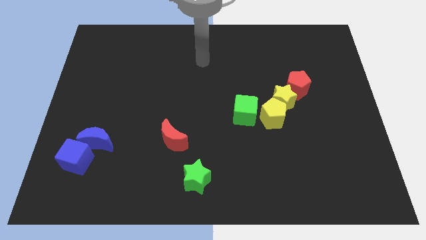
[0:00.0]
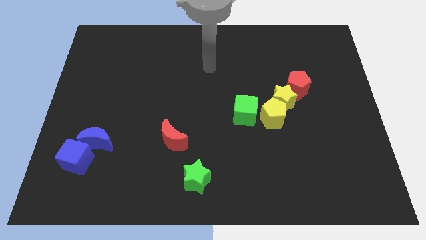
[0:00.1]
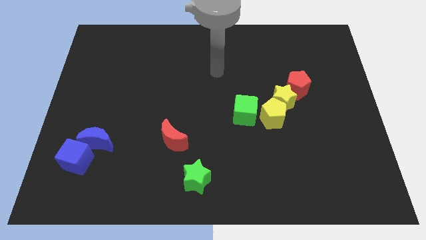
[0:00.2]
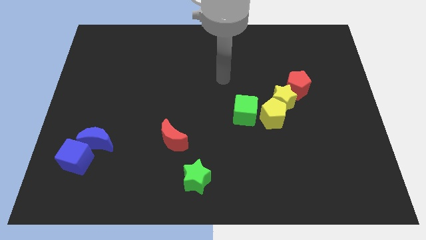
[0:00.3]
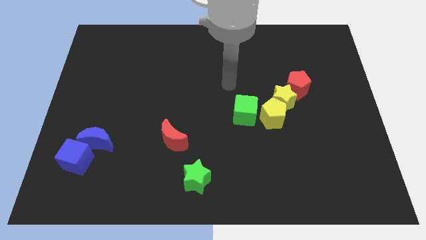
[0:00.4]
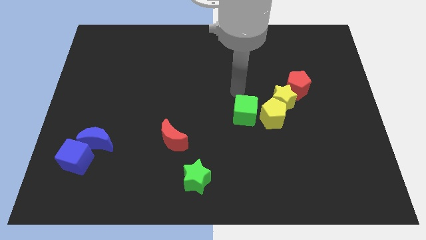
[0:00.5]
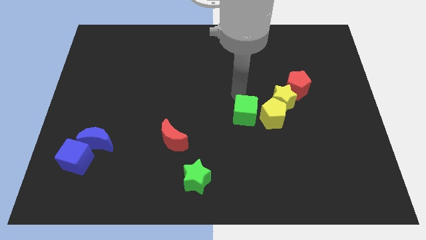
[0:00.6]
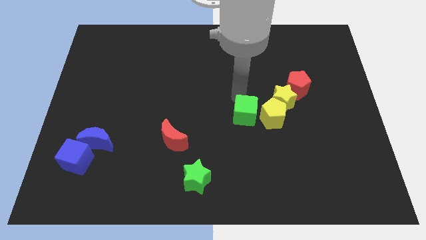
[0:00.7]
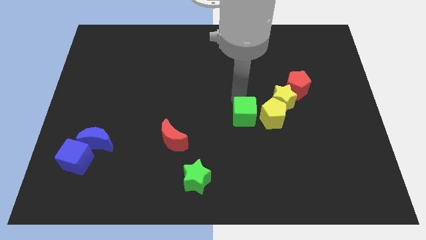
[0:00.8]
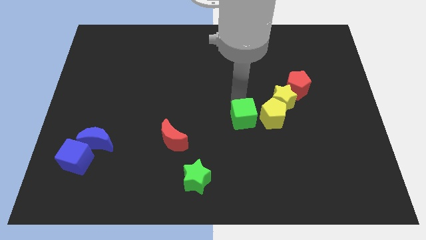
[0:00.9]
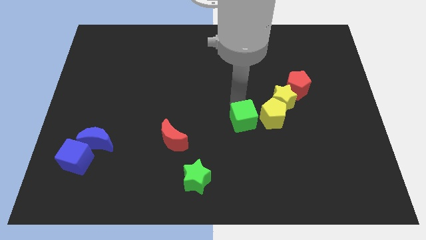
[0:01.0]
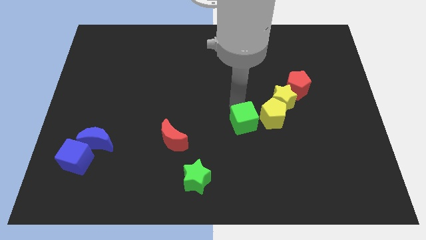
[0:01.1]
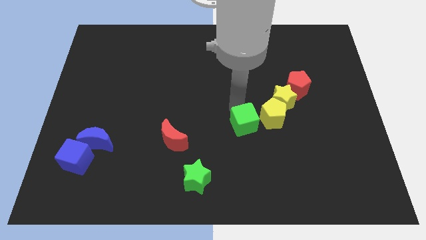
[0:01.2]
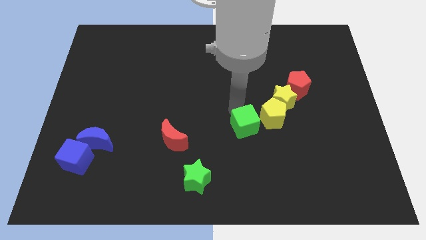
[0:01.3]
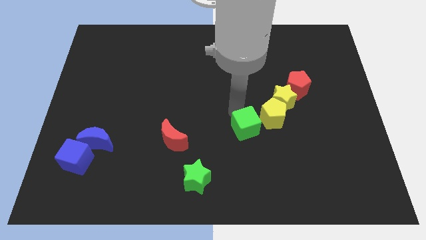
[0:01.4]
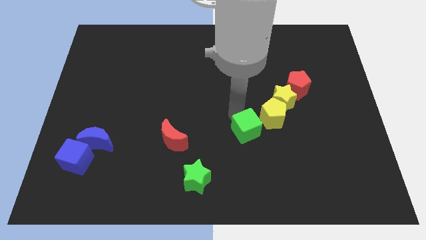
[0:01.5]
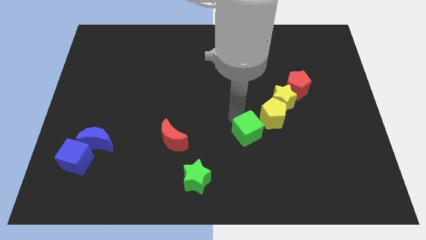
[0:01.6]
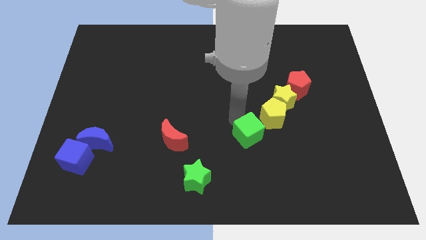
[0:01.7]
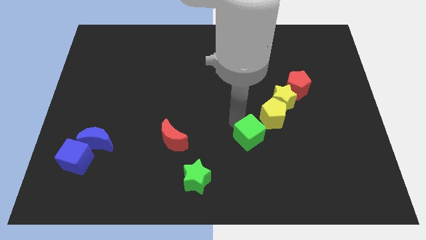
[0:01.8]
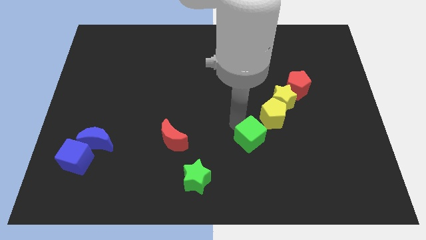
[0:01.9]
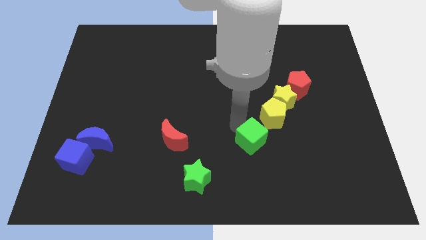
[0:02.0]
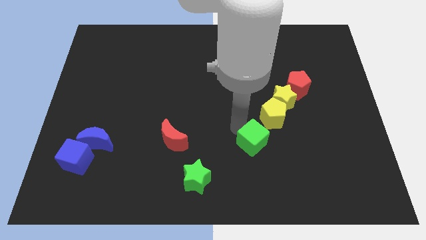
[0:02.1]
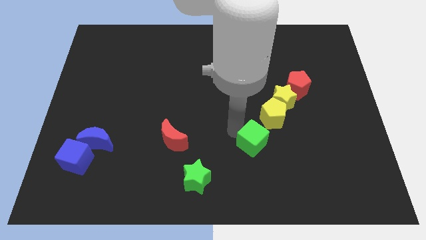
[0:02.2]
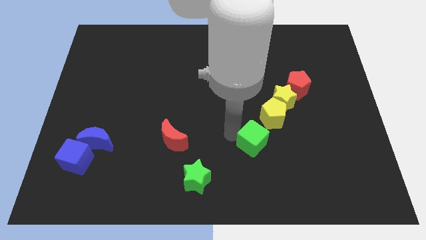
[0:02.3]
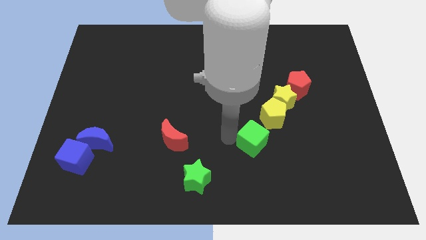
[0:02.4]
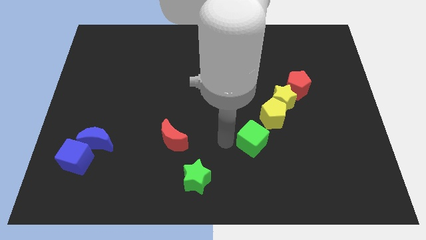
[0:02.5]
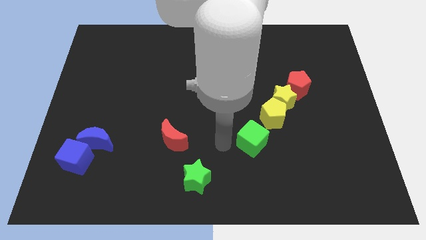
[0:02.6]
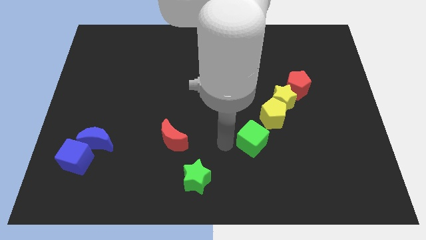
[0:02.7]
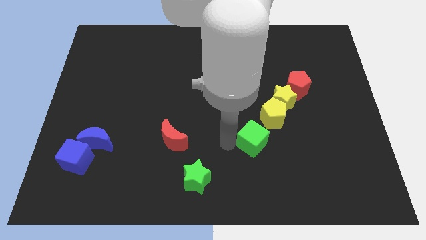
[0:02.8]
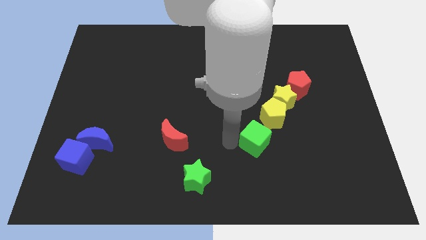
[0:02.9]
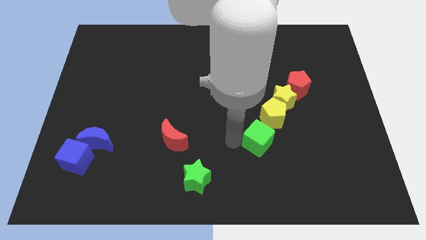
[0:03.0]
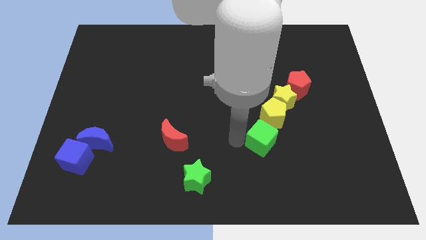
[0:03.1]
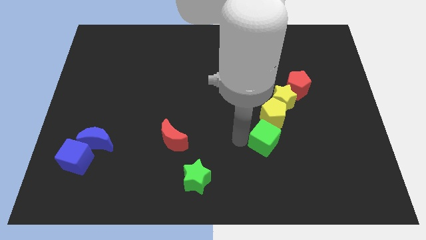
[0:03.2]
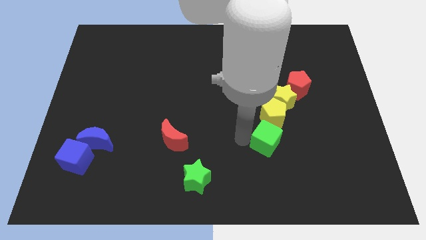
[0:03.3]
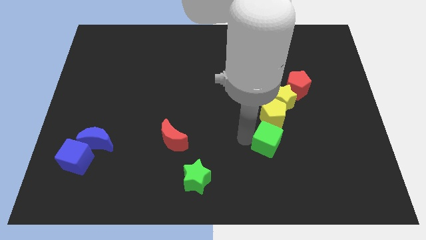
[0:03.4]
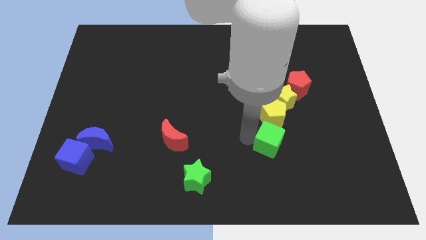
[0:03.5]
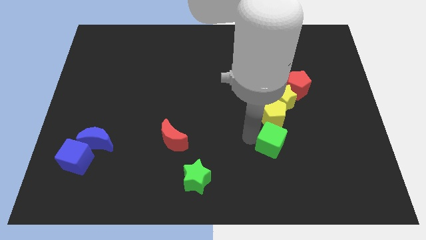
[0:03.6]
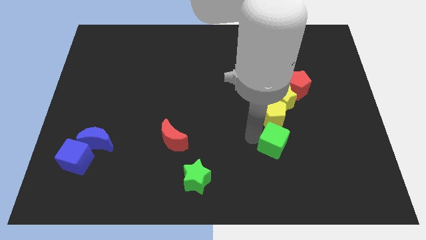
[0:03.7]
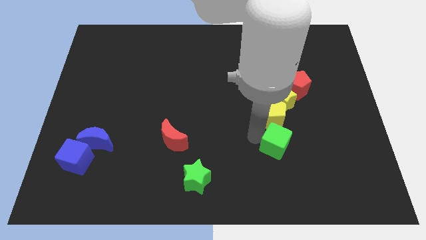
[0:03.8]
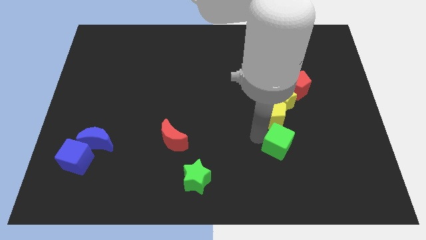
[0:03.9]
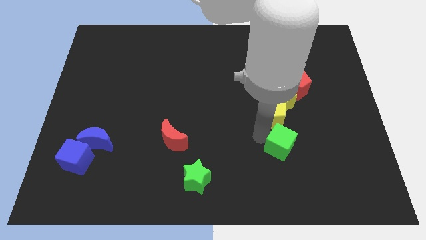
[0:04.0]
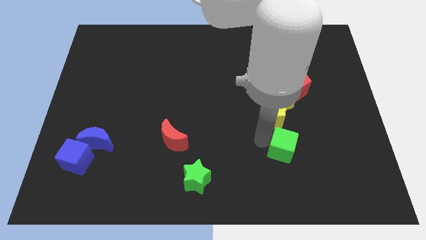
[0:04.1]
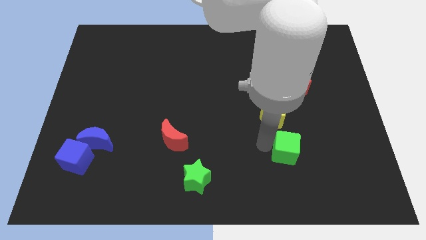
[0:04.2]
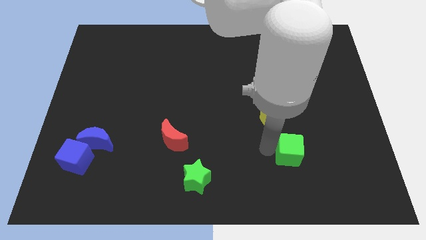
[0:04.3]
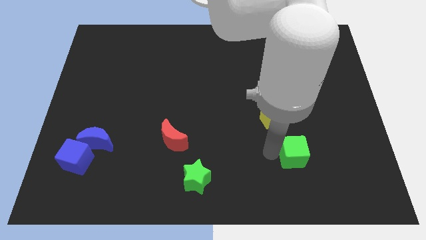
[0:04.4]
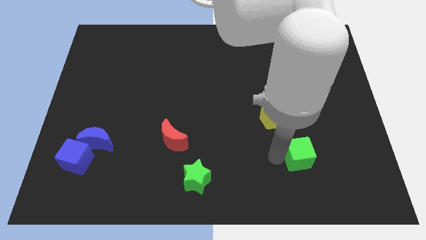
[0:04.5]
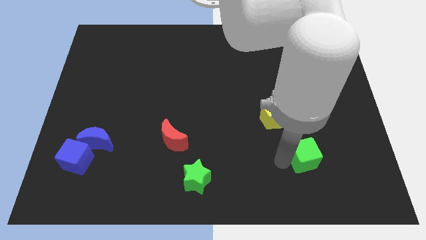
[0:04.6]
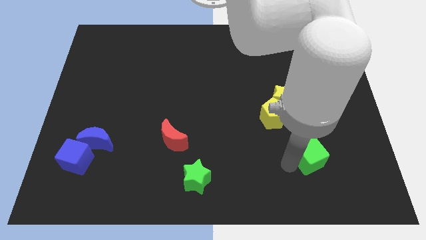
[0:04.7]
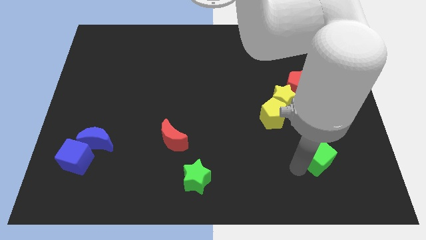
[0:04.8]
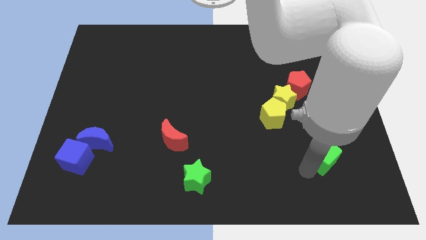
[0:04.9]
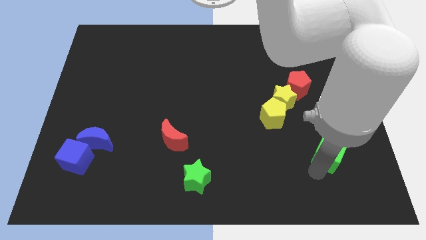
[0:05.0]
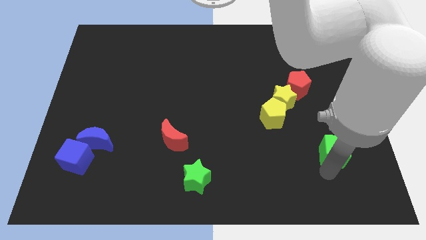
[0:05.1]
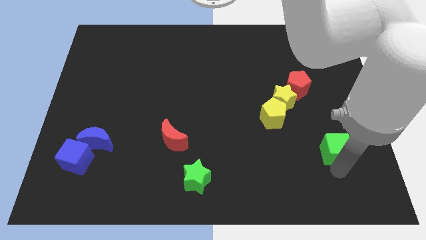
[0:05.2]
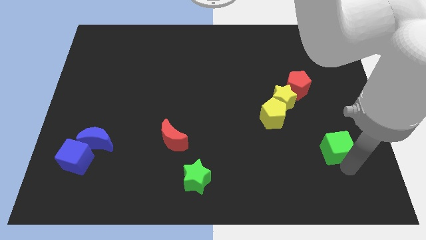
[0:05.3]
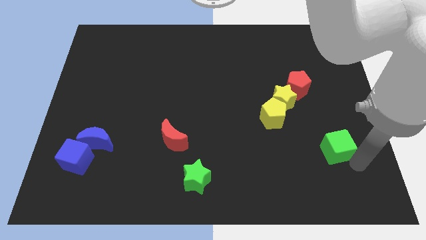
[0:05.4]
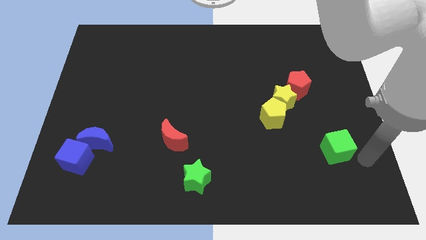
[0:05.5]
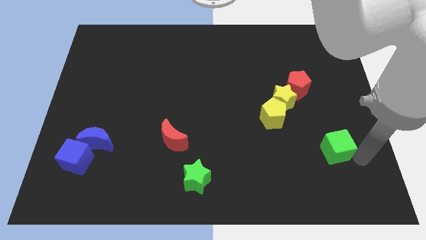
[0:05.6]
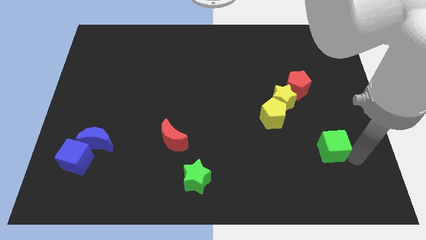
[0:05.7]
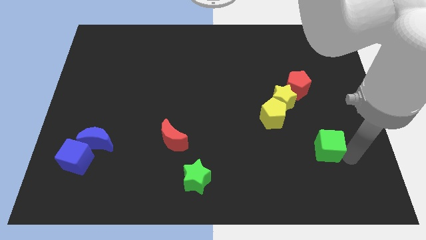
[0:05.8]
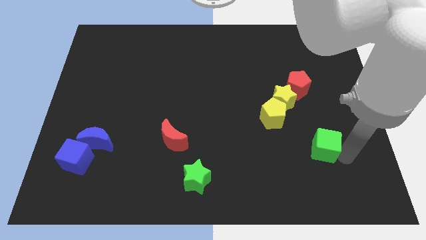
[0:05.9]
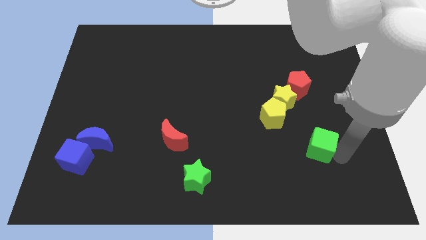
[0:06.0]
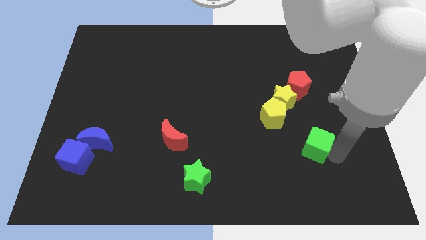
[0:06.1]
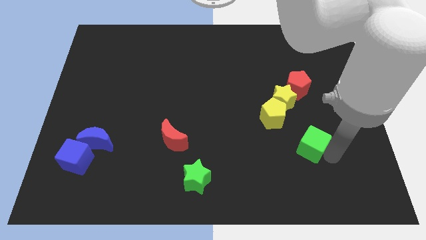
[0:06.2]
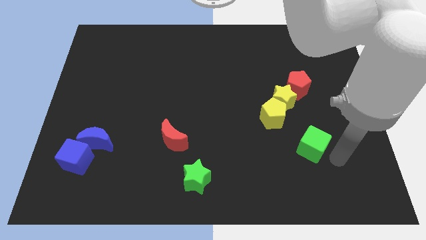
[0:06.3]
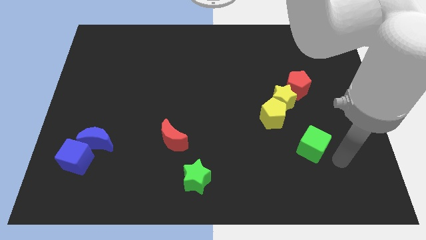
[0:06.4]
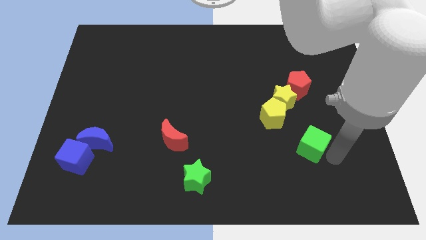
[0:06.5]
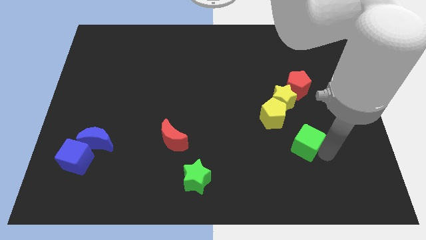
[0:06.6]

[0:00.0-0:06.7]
move the green cube to the bottom side of the red pentagon

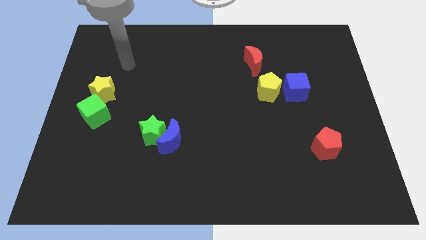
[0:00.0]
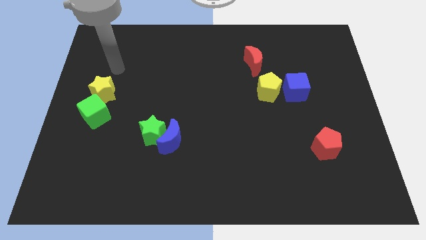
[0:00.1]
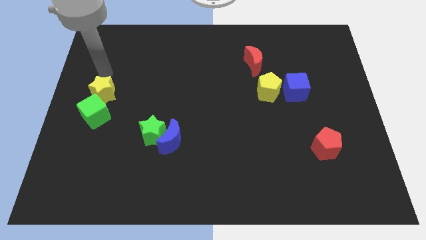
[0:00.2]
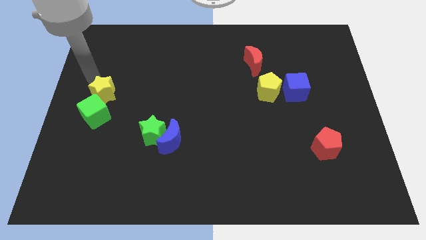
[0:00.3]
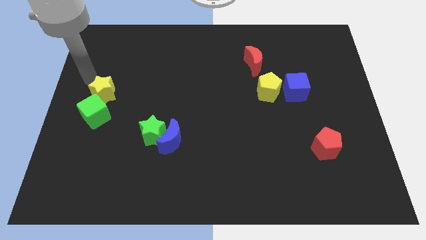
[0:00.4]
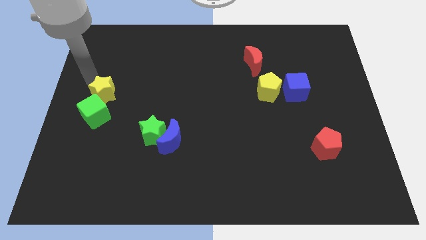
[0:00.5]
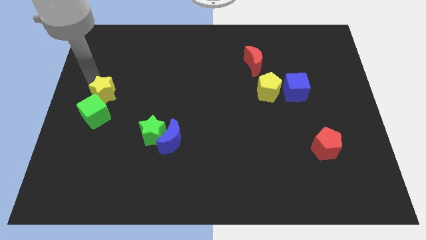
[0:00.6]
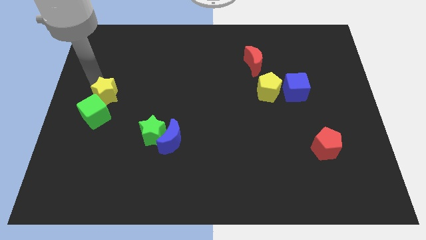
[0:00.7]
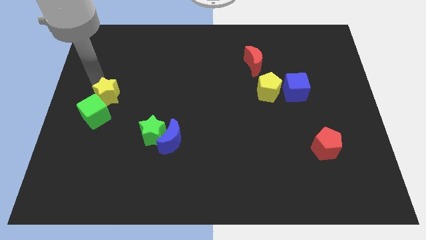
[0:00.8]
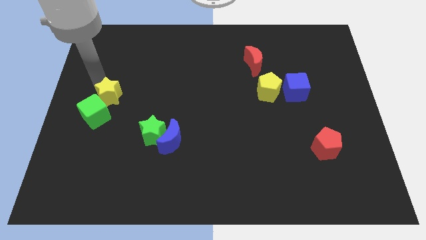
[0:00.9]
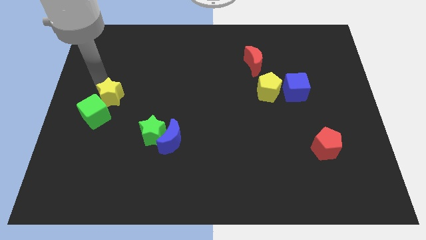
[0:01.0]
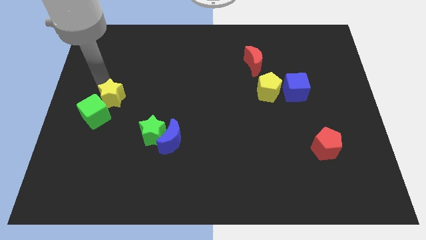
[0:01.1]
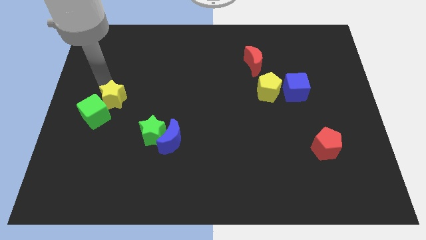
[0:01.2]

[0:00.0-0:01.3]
slide the yellow star to the right of the green cube
